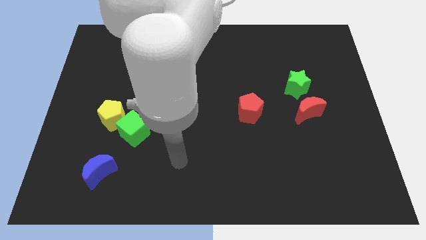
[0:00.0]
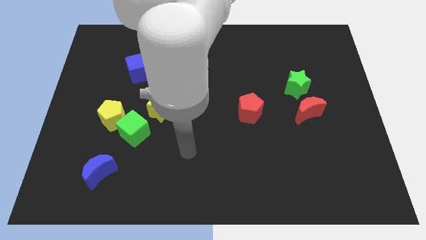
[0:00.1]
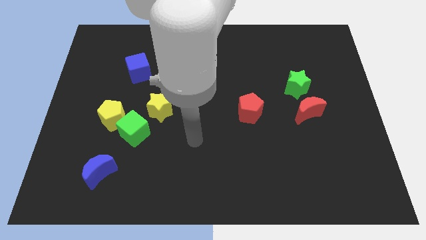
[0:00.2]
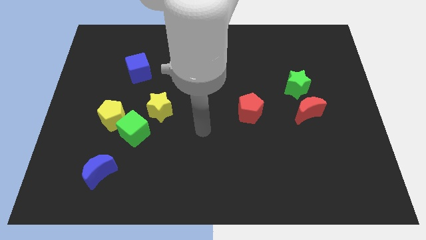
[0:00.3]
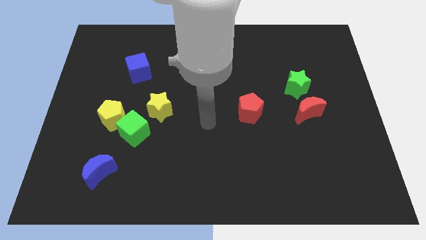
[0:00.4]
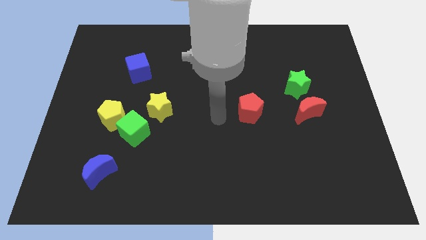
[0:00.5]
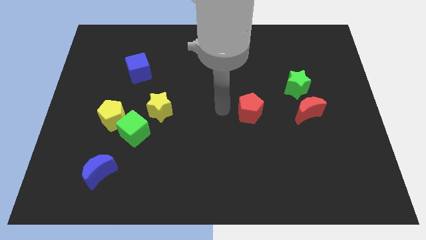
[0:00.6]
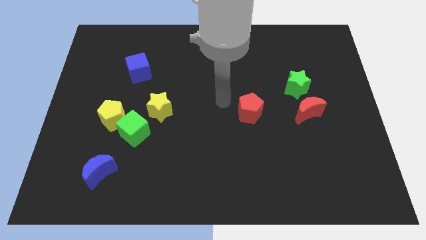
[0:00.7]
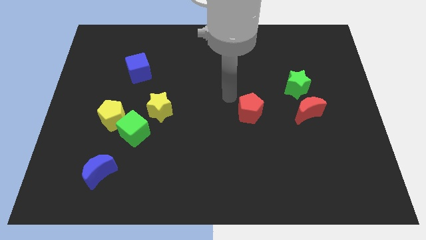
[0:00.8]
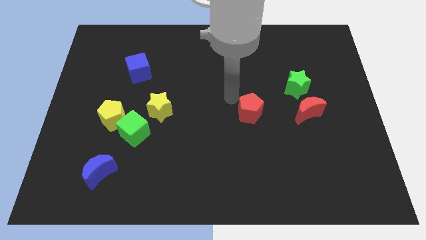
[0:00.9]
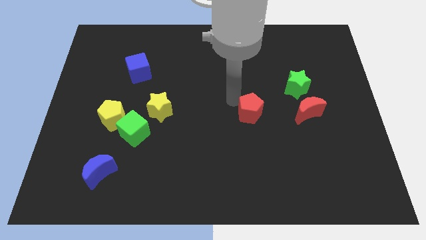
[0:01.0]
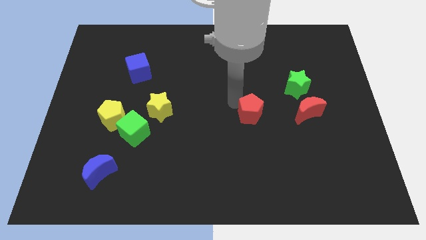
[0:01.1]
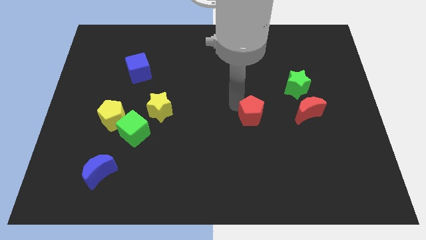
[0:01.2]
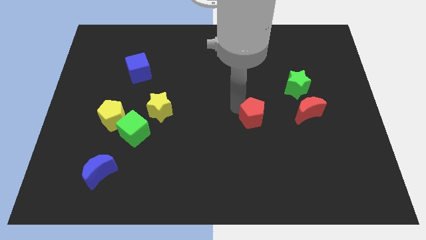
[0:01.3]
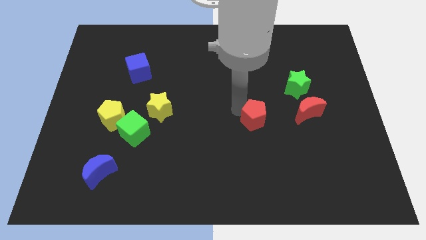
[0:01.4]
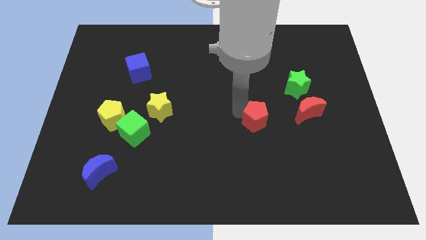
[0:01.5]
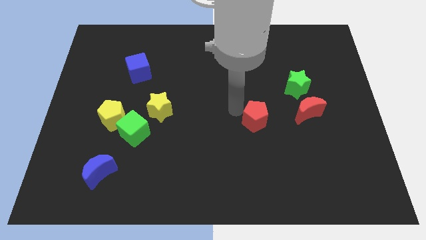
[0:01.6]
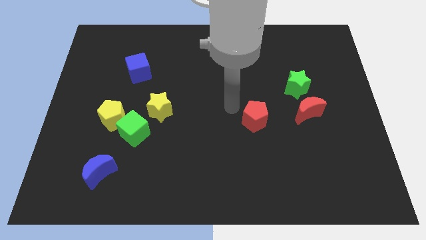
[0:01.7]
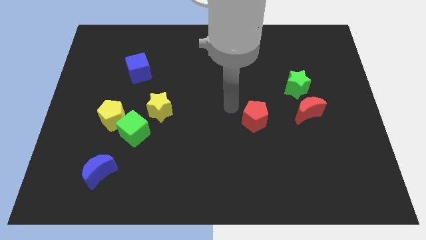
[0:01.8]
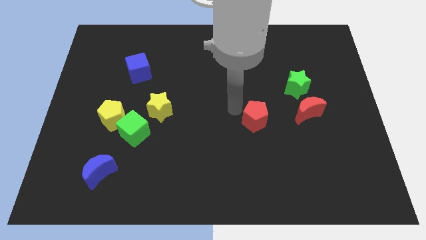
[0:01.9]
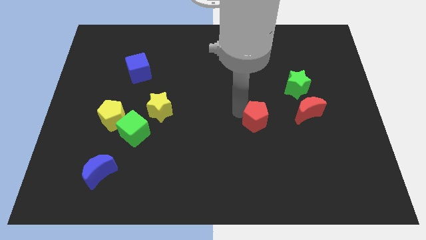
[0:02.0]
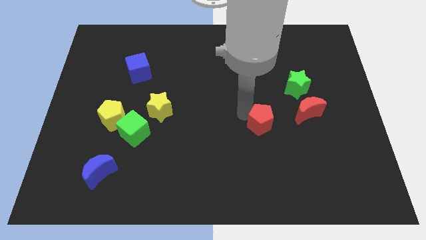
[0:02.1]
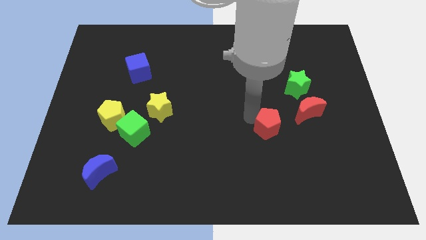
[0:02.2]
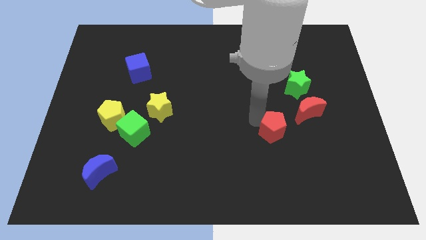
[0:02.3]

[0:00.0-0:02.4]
move the red pentagon a little bit down and to the right

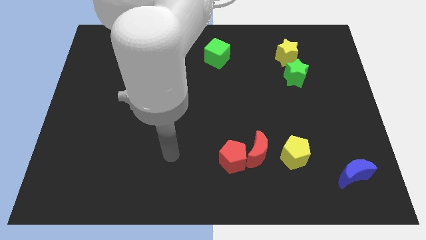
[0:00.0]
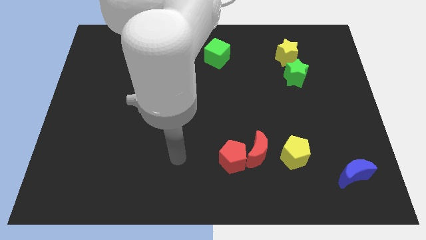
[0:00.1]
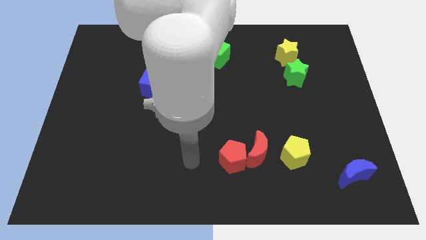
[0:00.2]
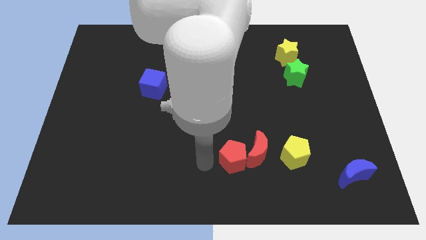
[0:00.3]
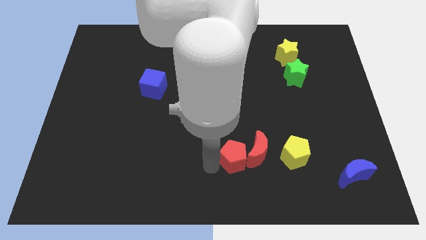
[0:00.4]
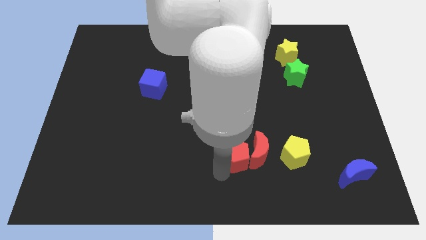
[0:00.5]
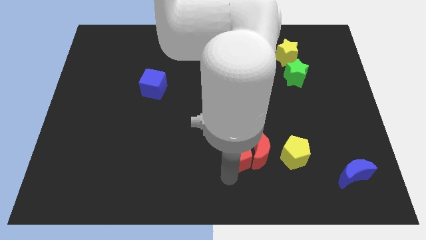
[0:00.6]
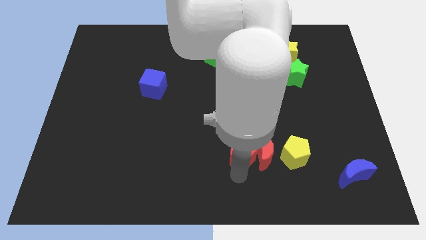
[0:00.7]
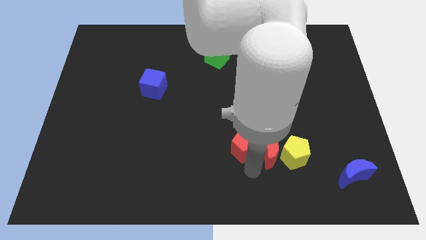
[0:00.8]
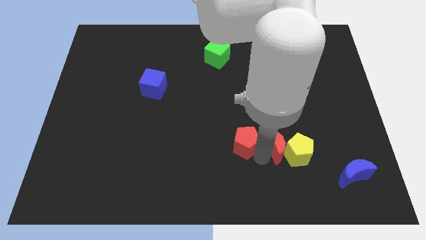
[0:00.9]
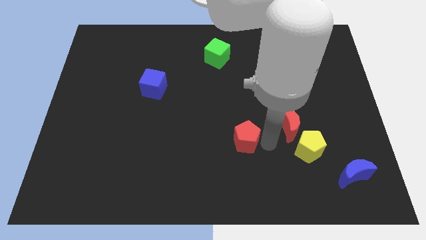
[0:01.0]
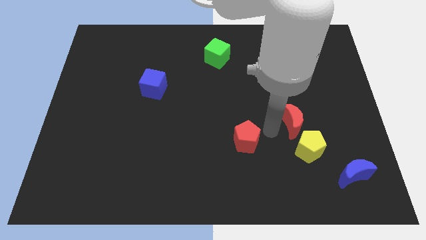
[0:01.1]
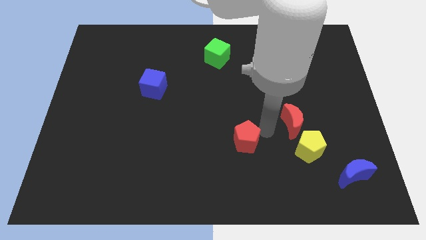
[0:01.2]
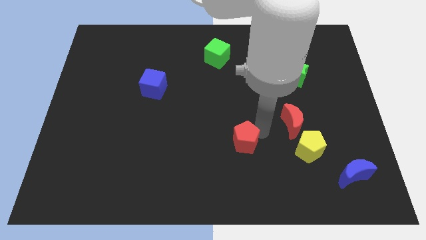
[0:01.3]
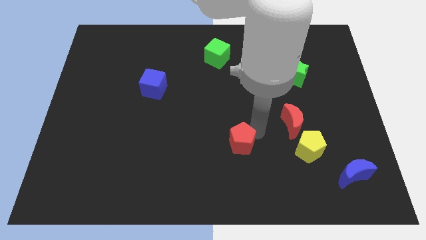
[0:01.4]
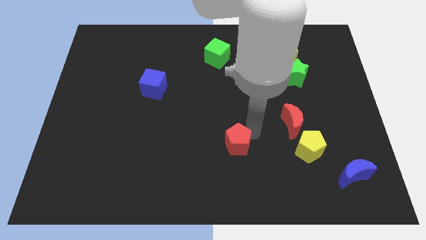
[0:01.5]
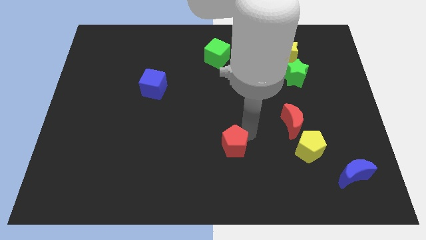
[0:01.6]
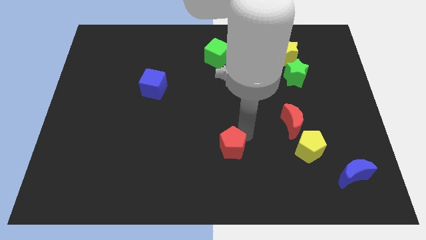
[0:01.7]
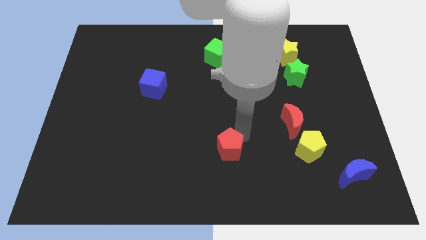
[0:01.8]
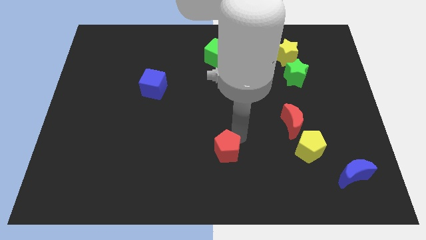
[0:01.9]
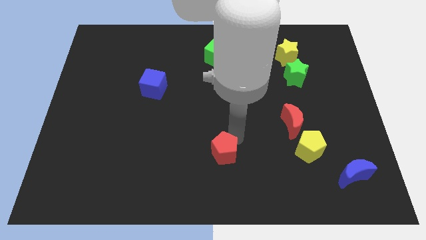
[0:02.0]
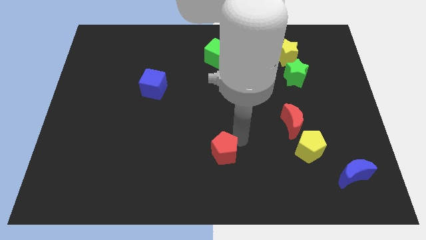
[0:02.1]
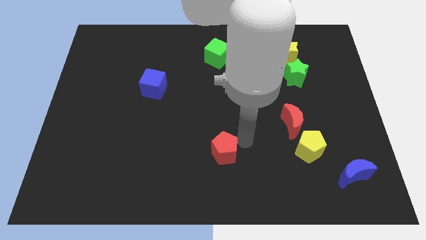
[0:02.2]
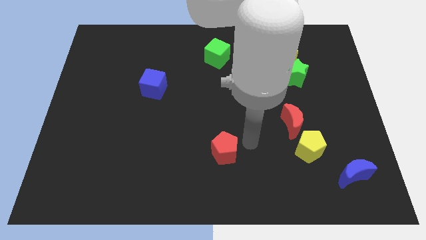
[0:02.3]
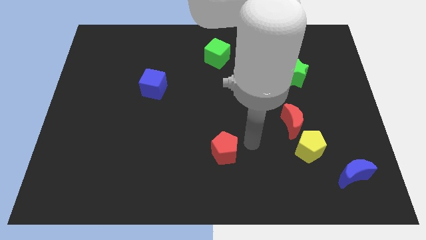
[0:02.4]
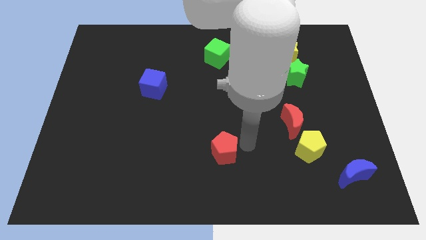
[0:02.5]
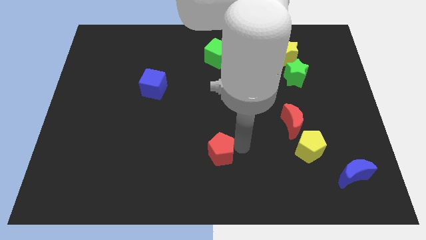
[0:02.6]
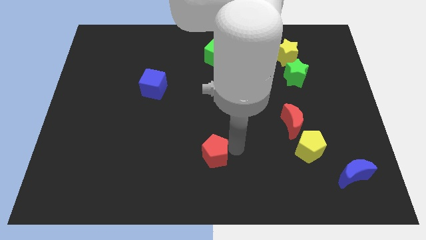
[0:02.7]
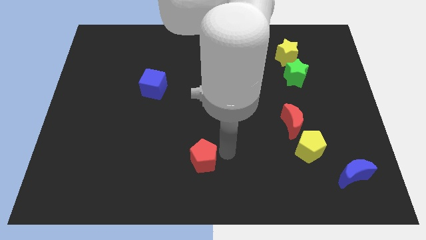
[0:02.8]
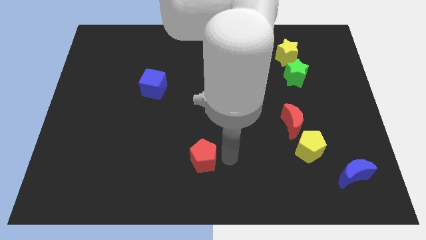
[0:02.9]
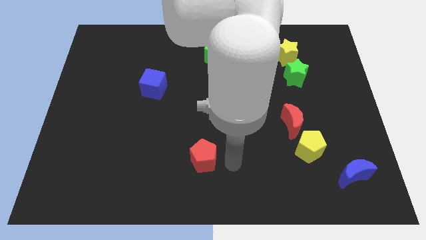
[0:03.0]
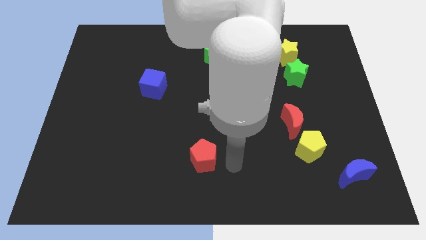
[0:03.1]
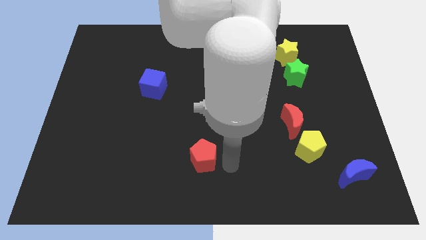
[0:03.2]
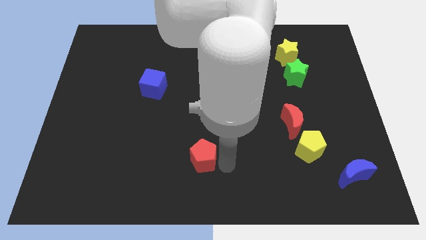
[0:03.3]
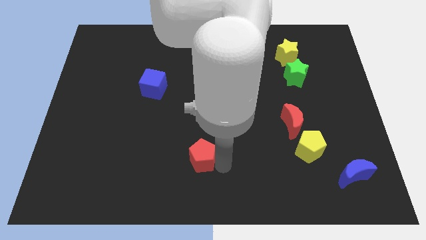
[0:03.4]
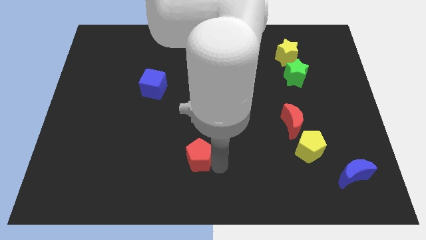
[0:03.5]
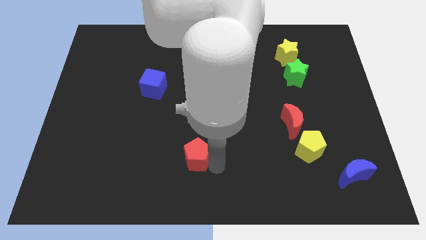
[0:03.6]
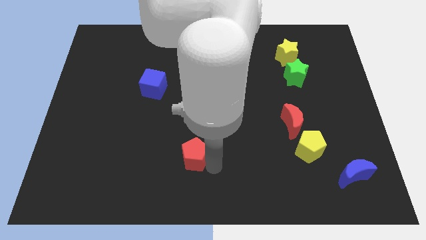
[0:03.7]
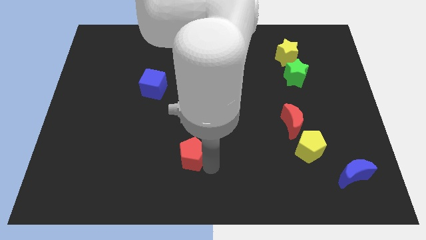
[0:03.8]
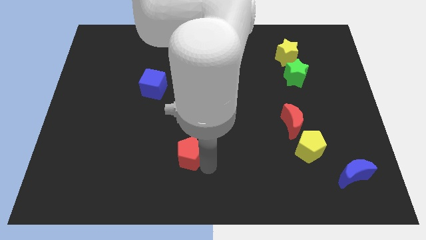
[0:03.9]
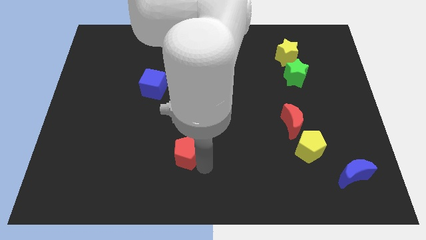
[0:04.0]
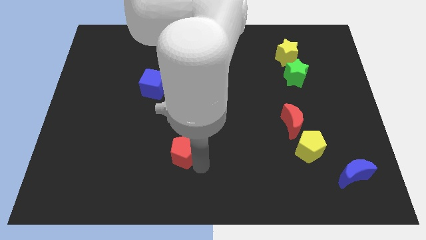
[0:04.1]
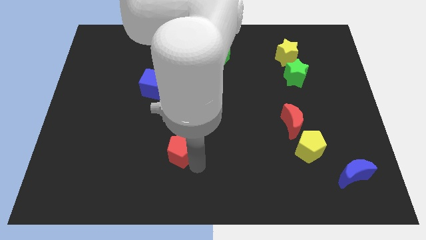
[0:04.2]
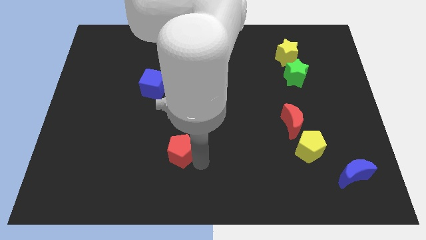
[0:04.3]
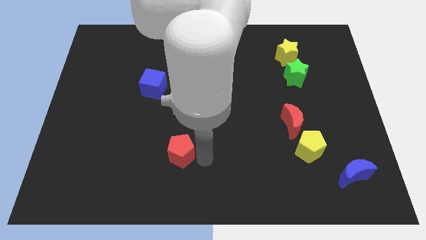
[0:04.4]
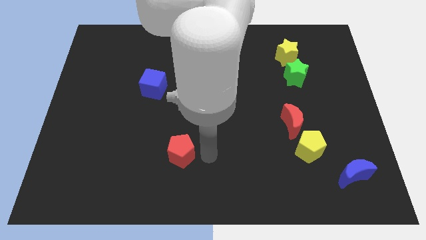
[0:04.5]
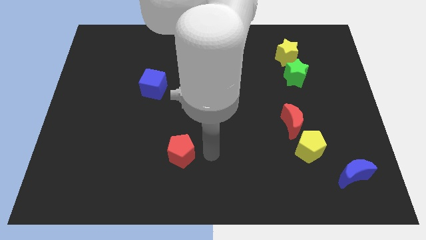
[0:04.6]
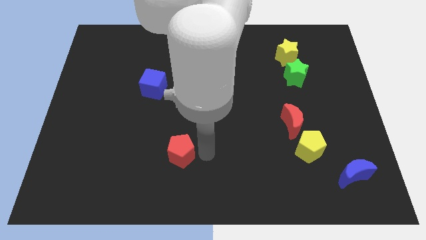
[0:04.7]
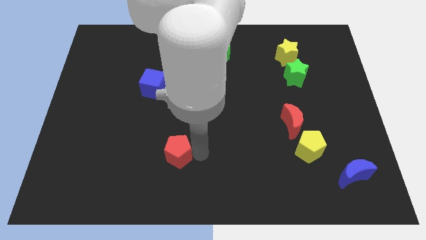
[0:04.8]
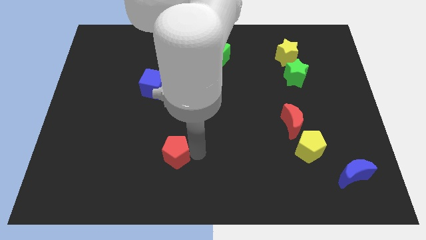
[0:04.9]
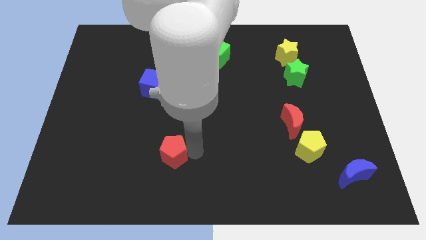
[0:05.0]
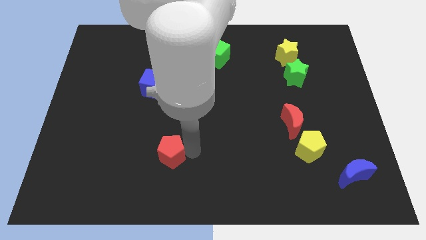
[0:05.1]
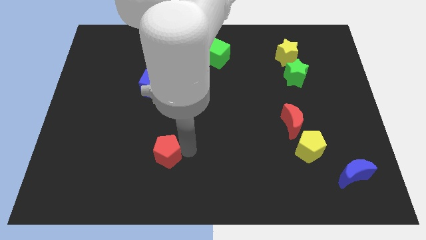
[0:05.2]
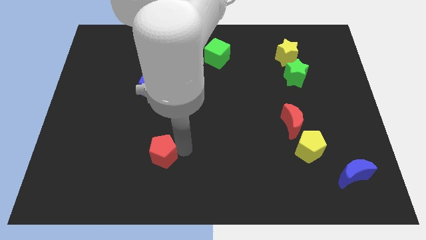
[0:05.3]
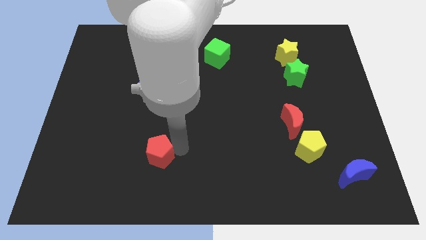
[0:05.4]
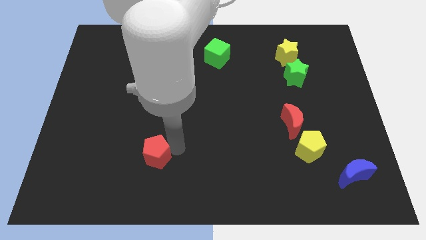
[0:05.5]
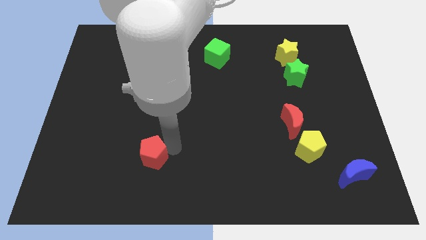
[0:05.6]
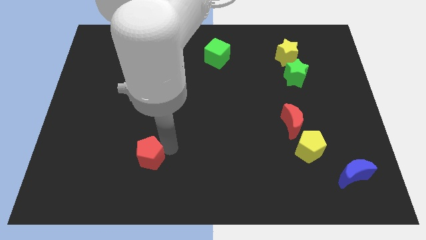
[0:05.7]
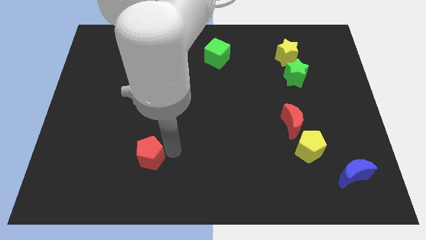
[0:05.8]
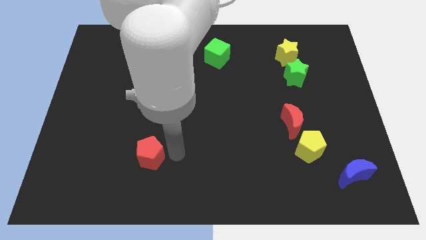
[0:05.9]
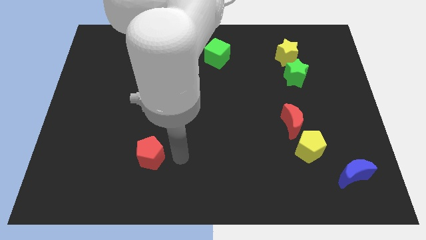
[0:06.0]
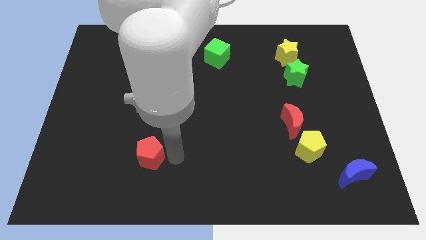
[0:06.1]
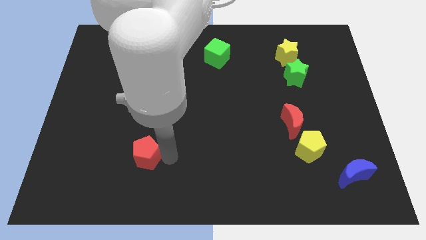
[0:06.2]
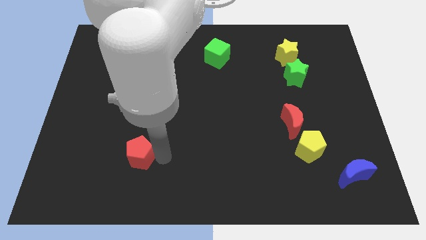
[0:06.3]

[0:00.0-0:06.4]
slide the red pentagon left
